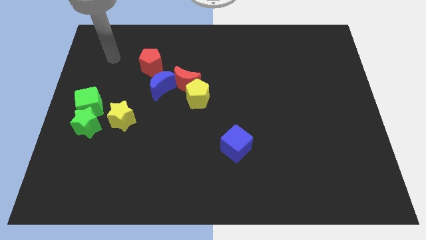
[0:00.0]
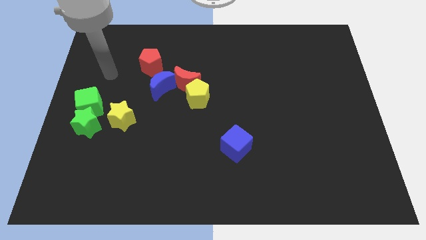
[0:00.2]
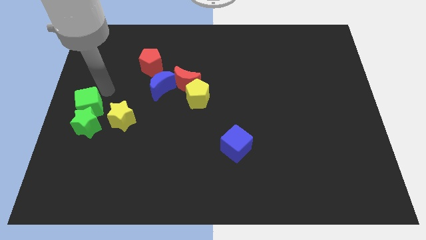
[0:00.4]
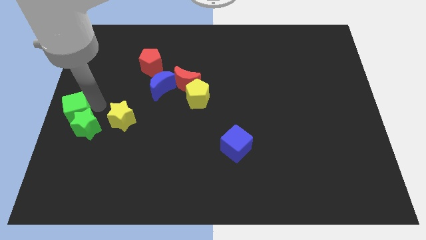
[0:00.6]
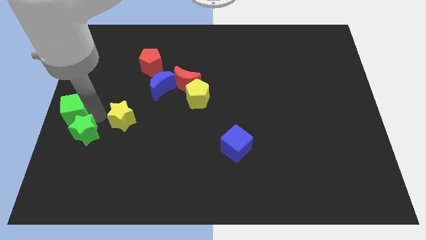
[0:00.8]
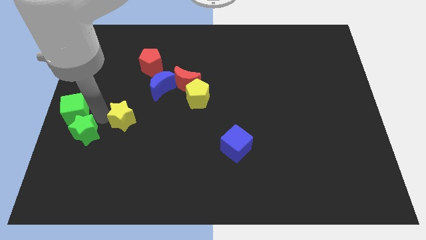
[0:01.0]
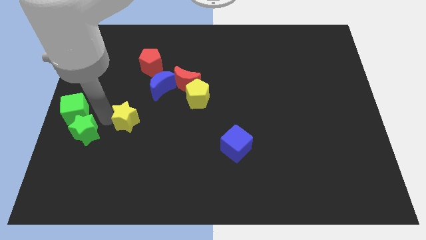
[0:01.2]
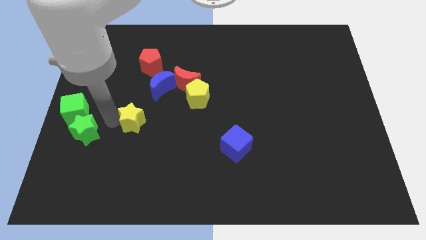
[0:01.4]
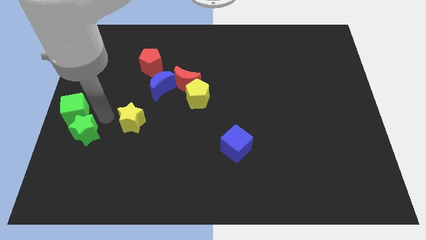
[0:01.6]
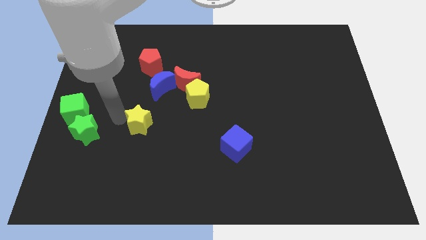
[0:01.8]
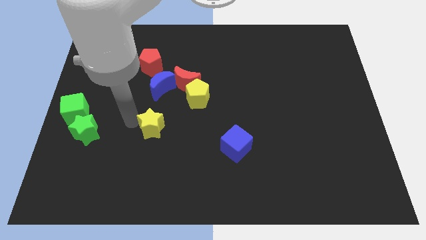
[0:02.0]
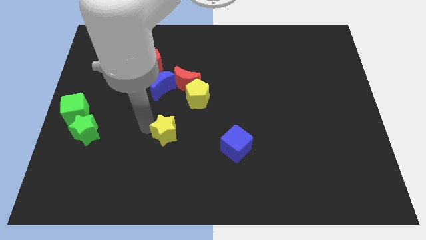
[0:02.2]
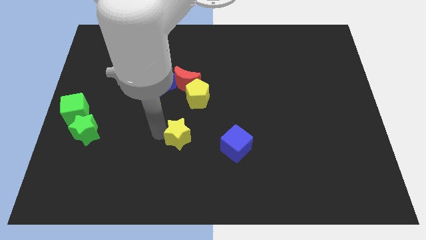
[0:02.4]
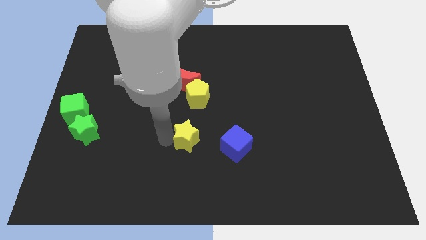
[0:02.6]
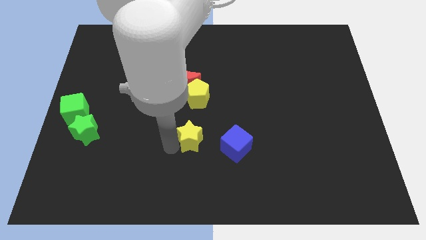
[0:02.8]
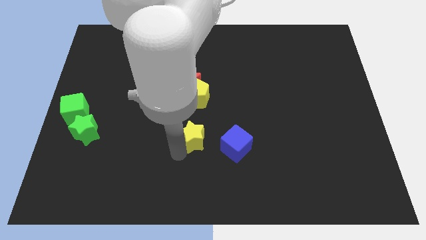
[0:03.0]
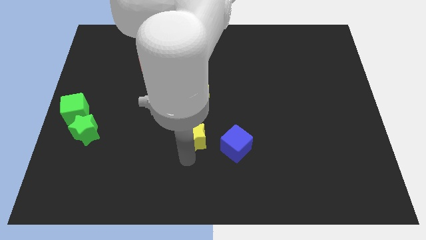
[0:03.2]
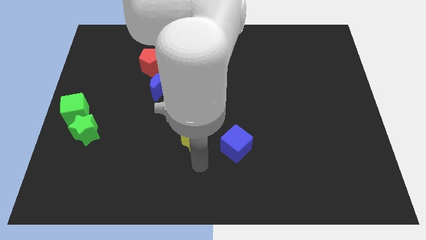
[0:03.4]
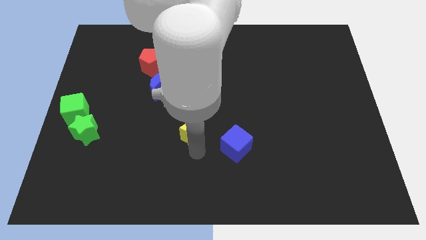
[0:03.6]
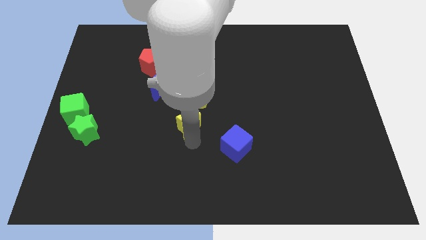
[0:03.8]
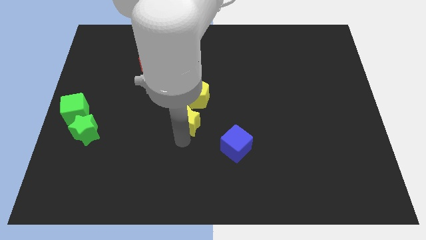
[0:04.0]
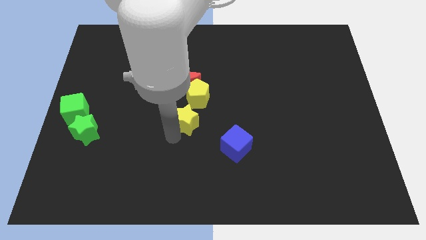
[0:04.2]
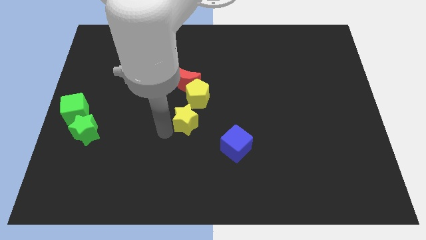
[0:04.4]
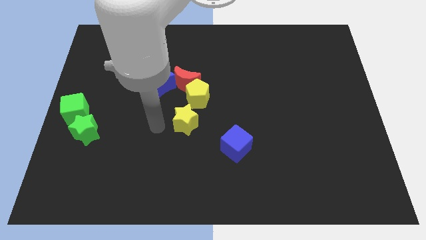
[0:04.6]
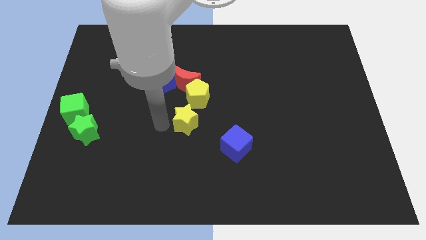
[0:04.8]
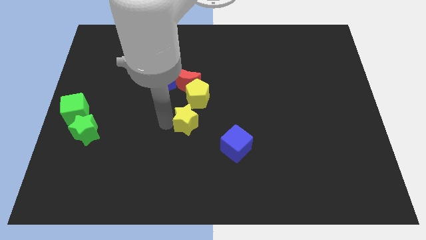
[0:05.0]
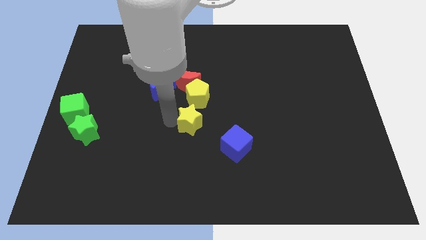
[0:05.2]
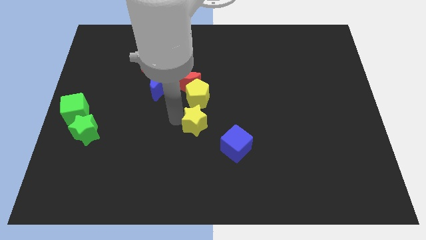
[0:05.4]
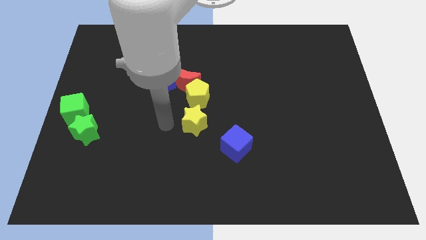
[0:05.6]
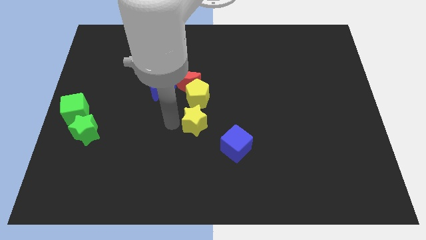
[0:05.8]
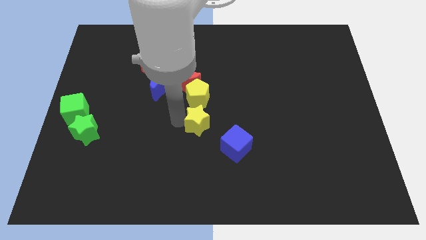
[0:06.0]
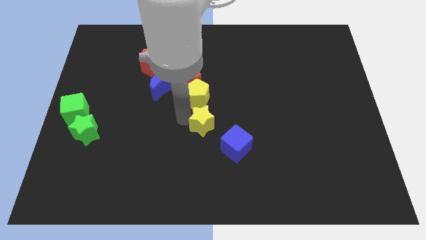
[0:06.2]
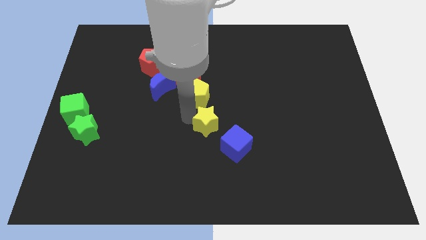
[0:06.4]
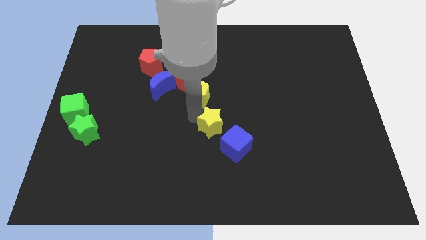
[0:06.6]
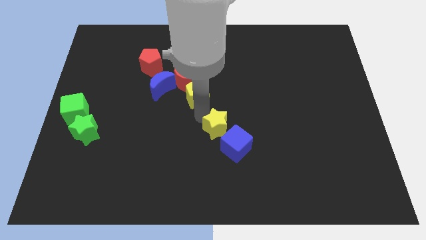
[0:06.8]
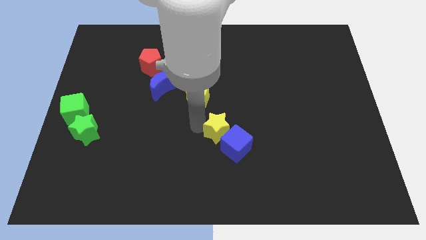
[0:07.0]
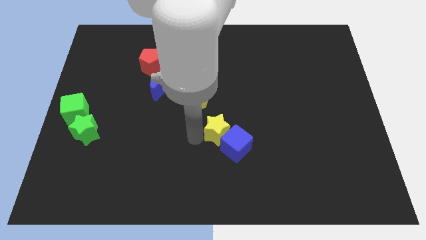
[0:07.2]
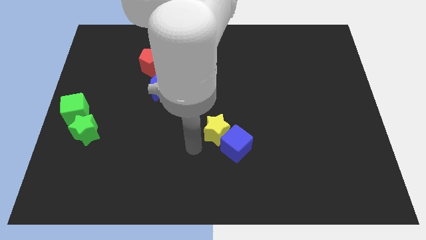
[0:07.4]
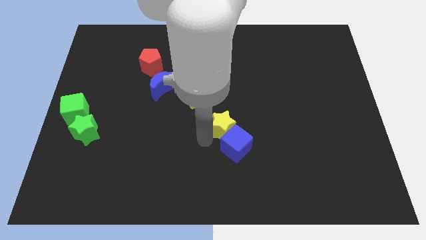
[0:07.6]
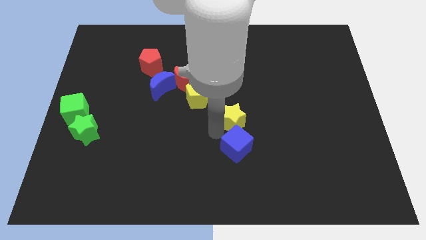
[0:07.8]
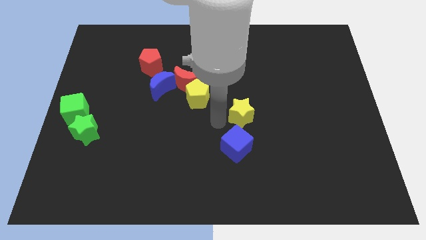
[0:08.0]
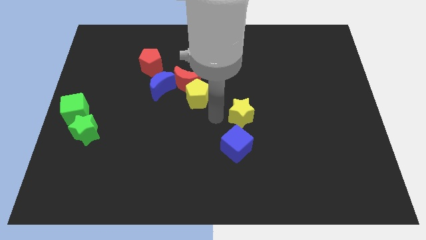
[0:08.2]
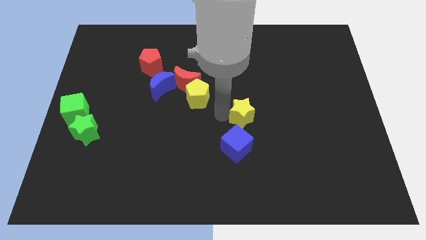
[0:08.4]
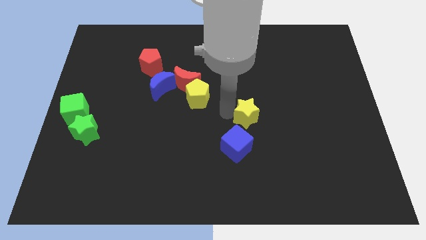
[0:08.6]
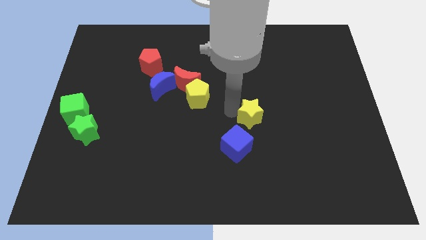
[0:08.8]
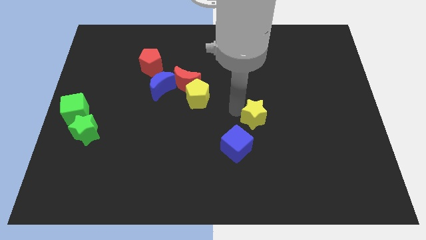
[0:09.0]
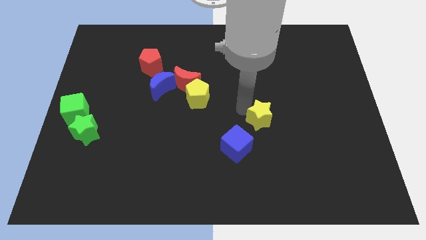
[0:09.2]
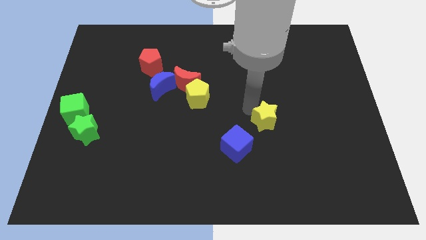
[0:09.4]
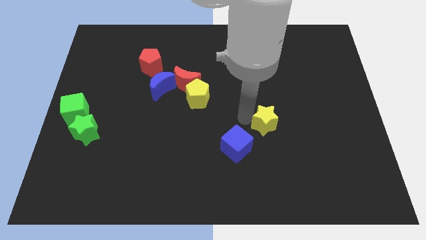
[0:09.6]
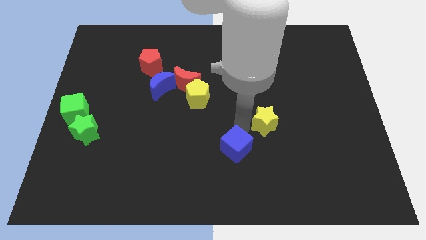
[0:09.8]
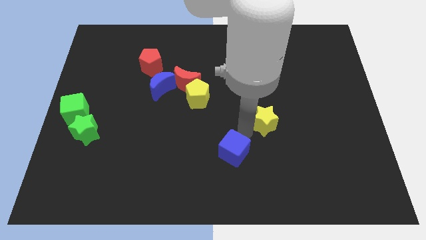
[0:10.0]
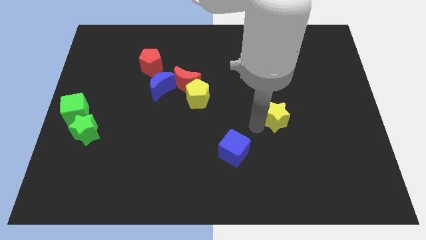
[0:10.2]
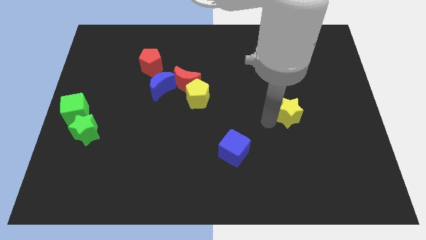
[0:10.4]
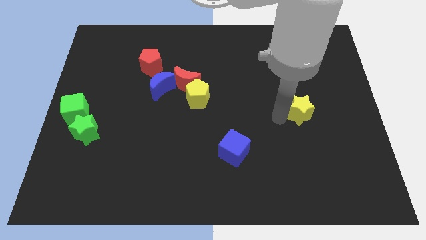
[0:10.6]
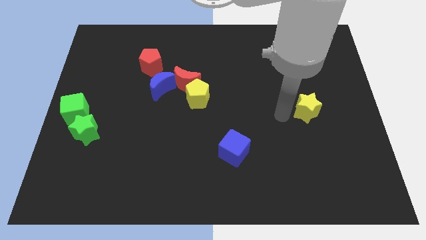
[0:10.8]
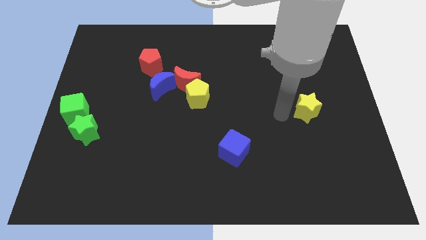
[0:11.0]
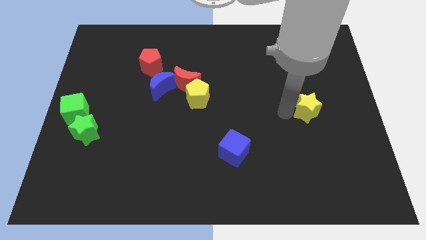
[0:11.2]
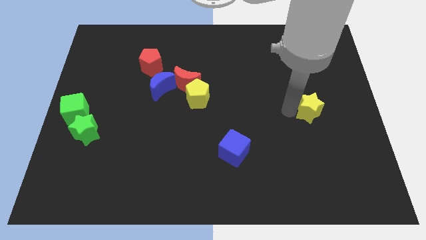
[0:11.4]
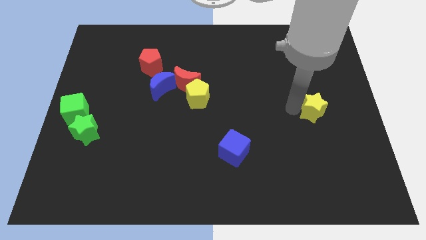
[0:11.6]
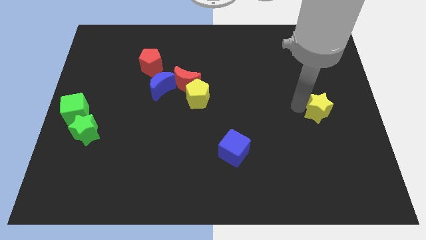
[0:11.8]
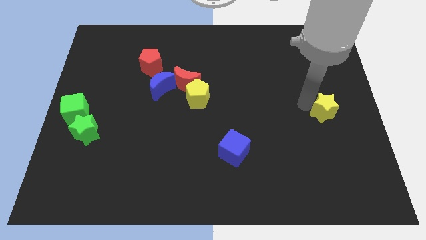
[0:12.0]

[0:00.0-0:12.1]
push the yellow star to the right side

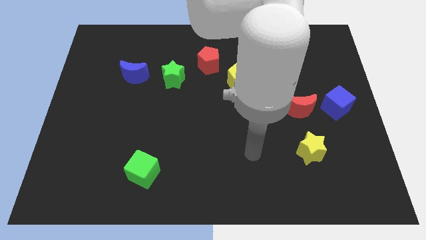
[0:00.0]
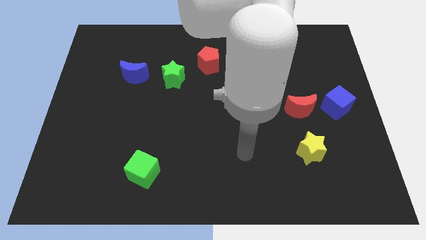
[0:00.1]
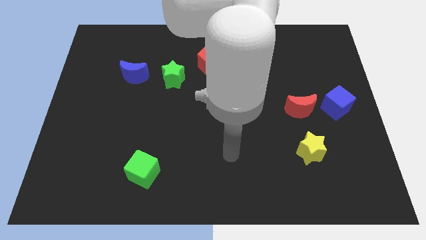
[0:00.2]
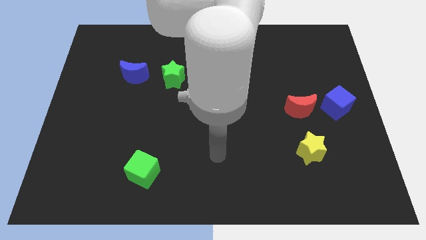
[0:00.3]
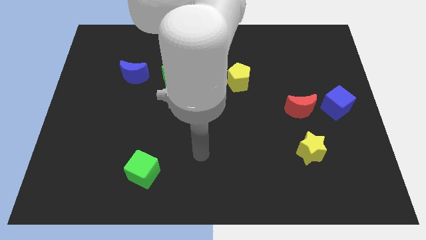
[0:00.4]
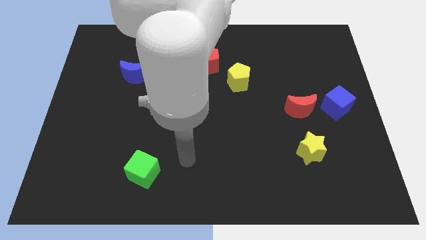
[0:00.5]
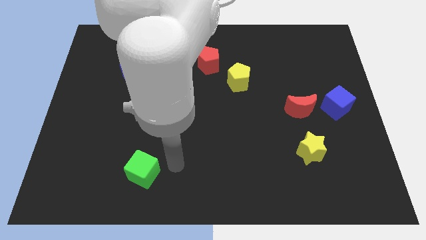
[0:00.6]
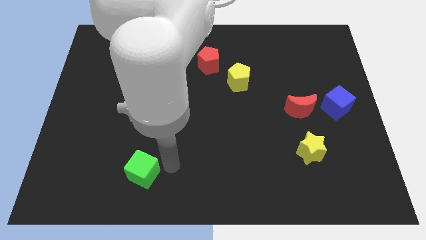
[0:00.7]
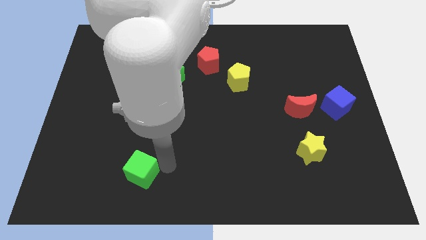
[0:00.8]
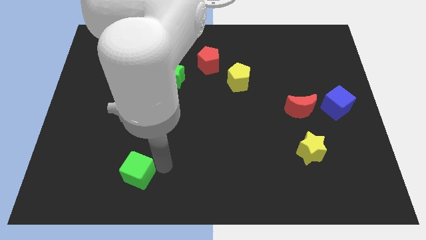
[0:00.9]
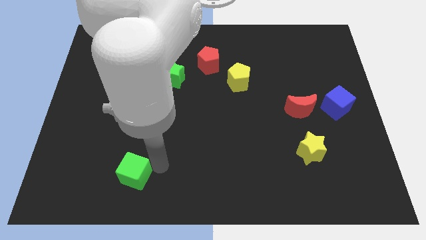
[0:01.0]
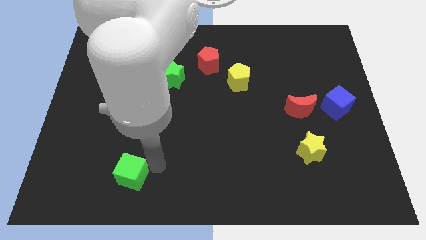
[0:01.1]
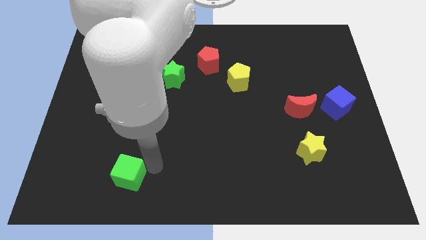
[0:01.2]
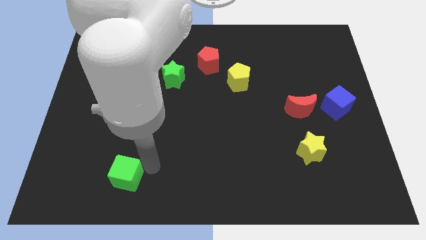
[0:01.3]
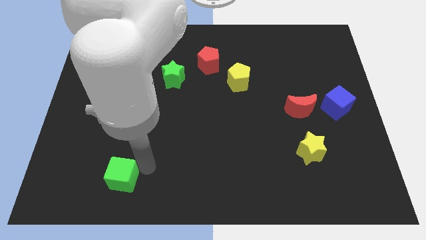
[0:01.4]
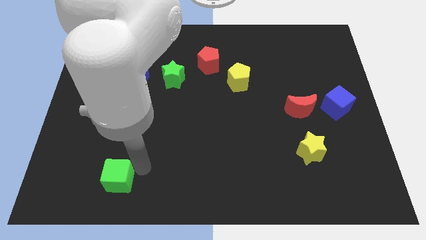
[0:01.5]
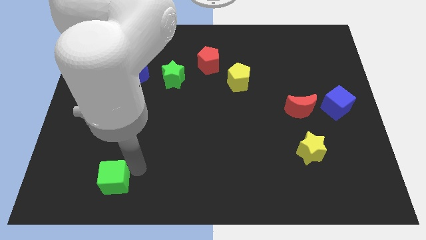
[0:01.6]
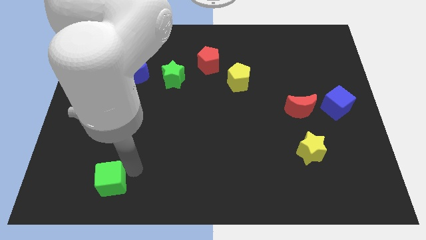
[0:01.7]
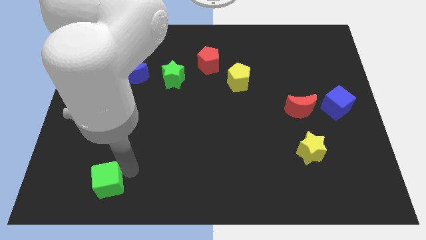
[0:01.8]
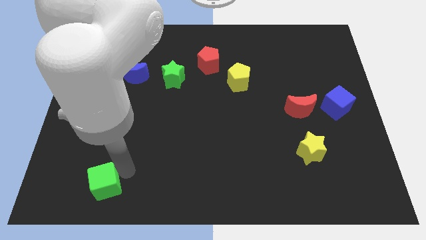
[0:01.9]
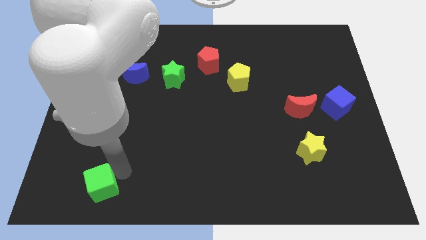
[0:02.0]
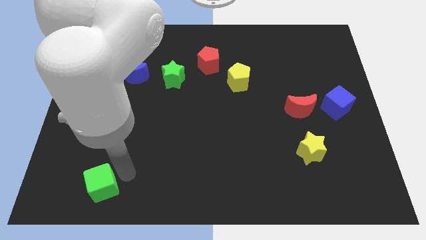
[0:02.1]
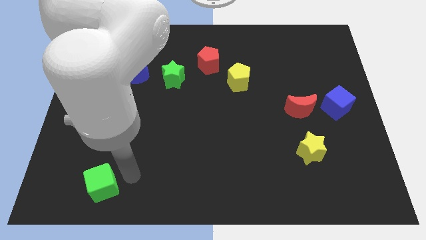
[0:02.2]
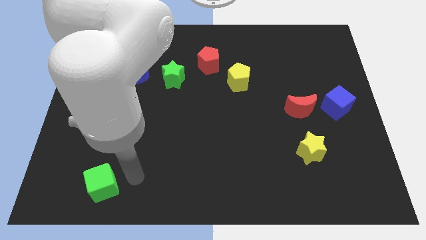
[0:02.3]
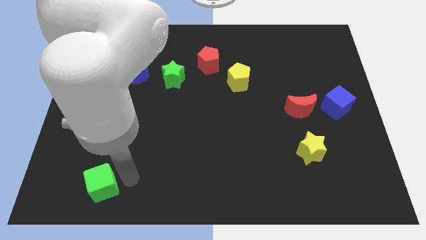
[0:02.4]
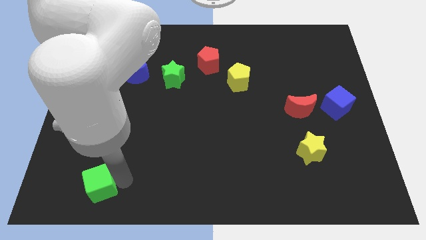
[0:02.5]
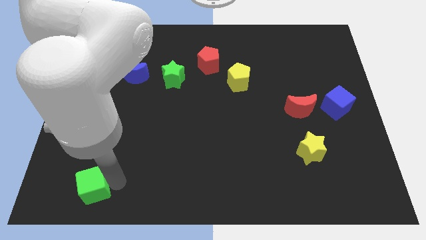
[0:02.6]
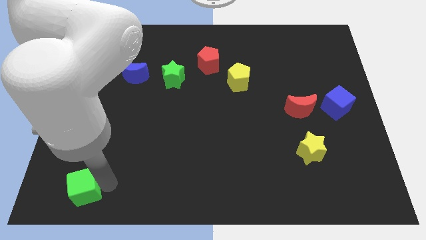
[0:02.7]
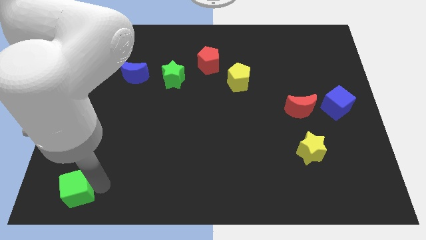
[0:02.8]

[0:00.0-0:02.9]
push the green cube to the bottom left corner
